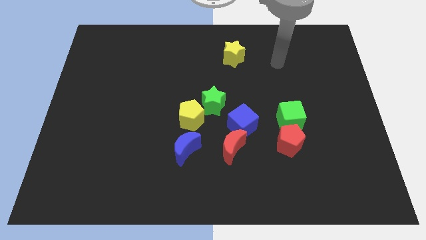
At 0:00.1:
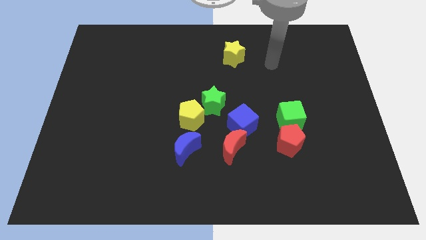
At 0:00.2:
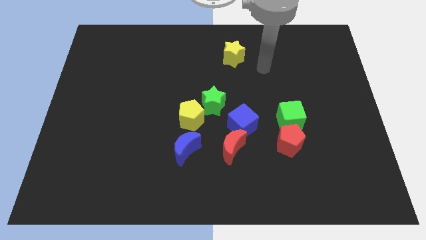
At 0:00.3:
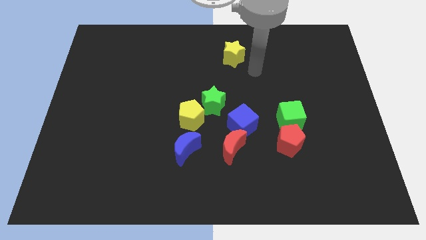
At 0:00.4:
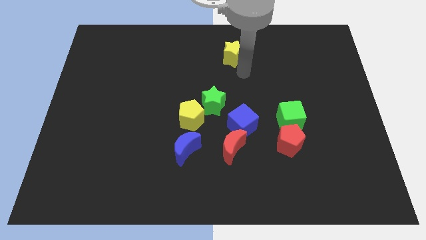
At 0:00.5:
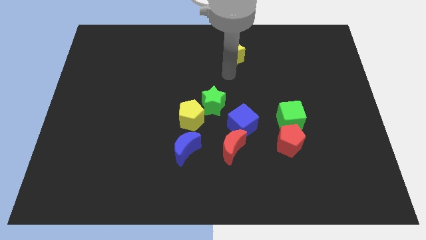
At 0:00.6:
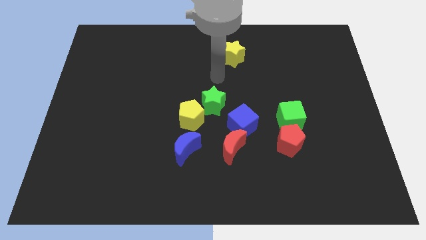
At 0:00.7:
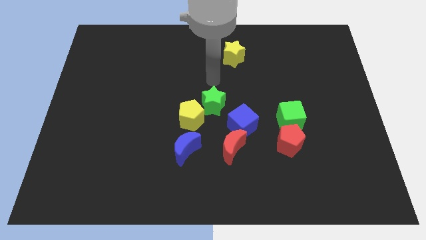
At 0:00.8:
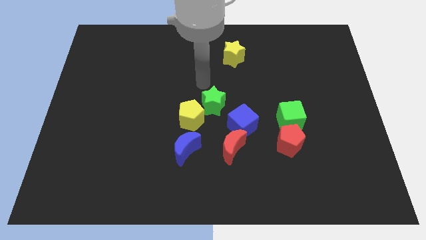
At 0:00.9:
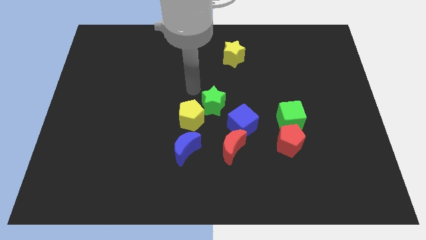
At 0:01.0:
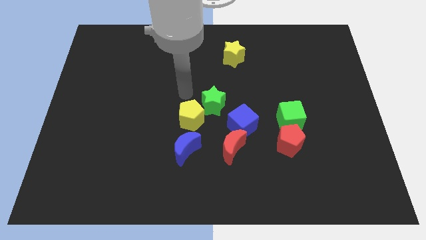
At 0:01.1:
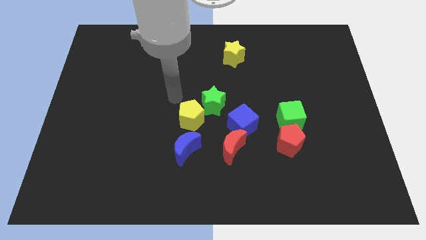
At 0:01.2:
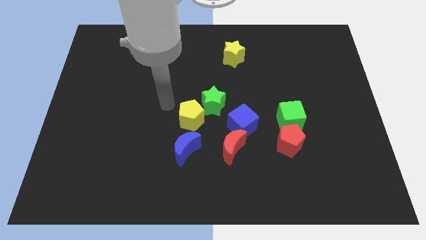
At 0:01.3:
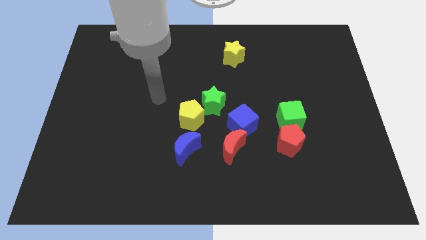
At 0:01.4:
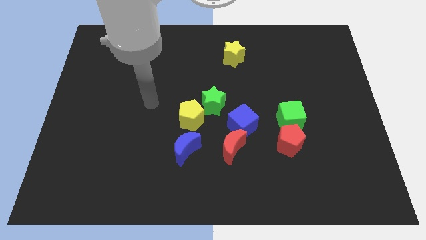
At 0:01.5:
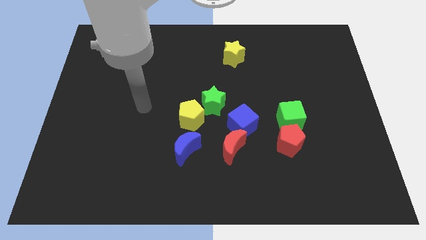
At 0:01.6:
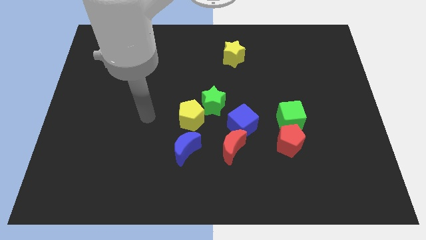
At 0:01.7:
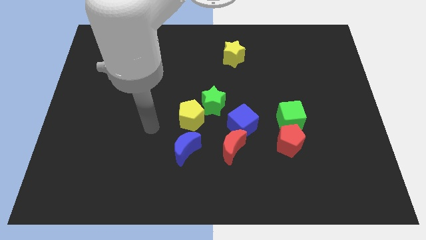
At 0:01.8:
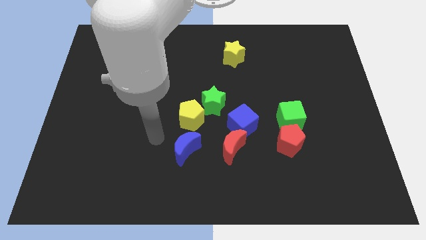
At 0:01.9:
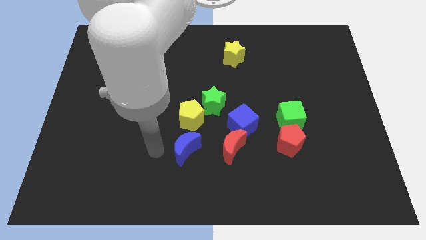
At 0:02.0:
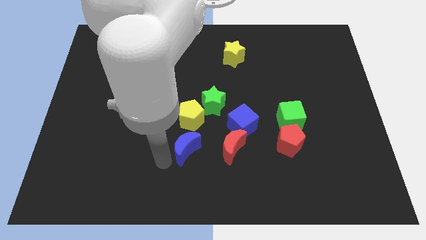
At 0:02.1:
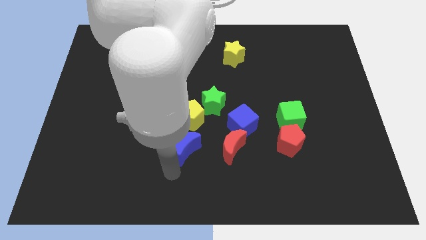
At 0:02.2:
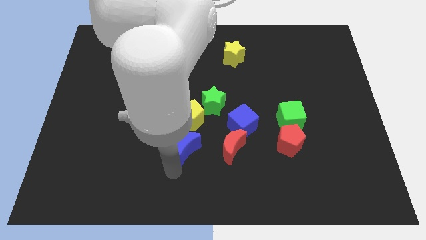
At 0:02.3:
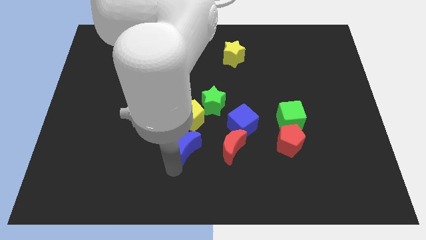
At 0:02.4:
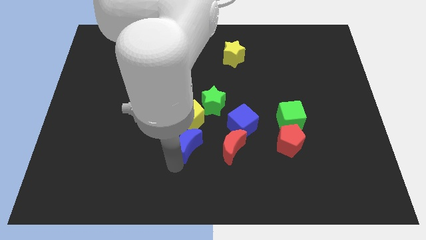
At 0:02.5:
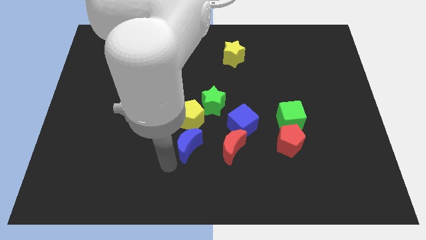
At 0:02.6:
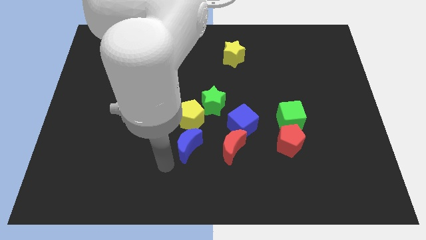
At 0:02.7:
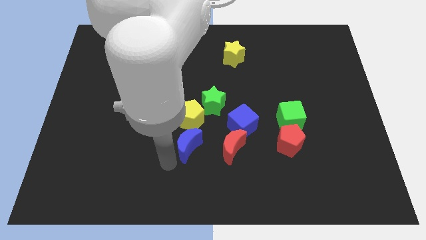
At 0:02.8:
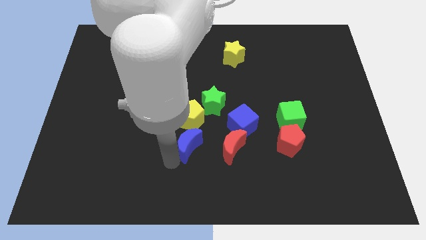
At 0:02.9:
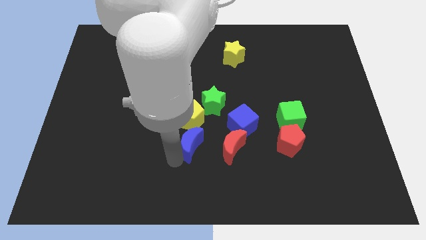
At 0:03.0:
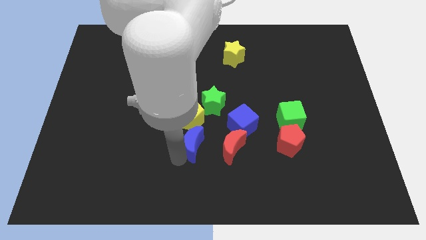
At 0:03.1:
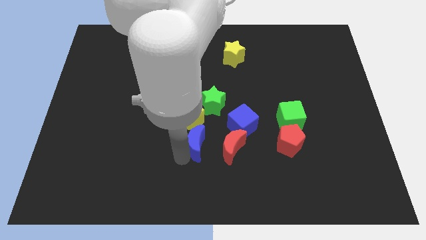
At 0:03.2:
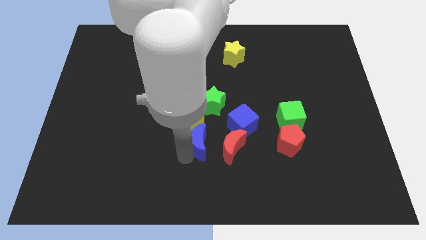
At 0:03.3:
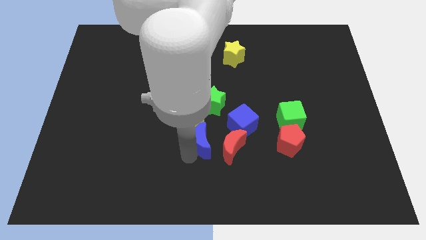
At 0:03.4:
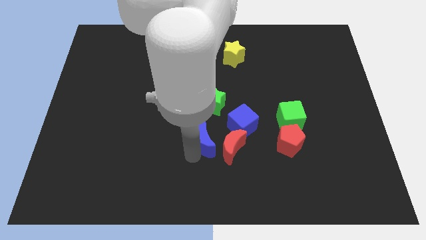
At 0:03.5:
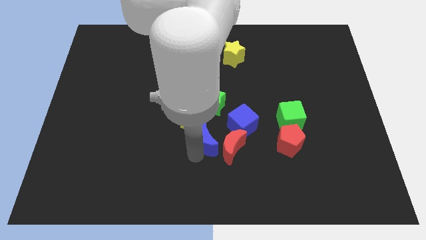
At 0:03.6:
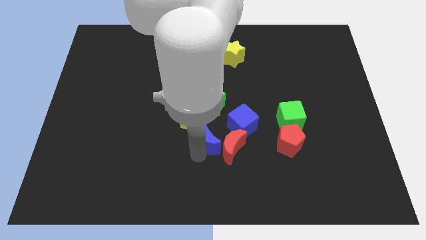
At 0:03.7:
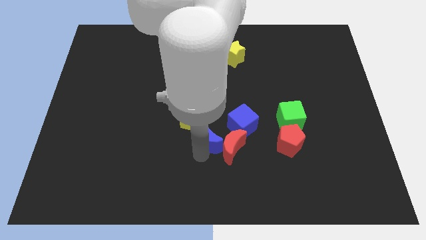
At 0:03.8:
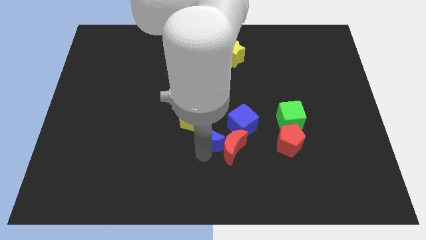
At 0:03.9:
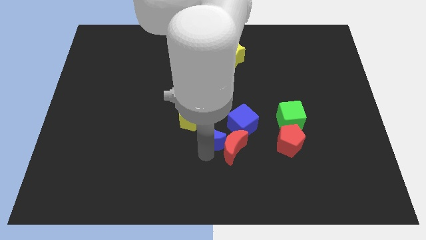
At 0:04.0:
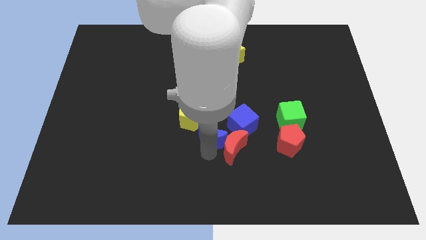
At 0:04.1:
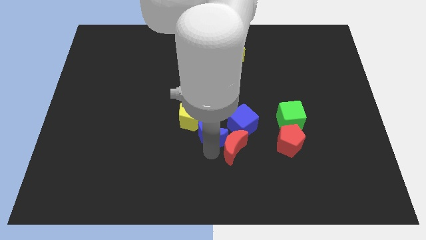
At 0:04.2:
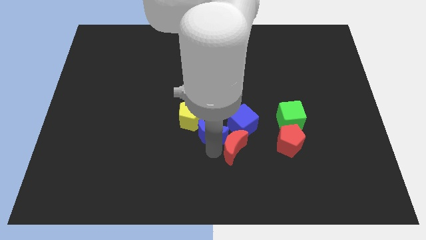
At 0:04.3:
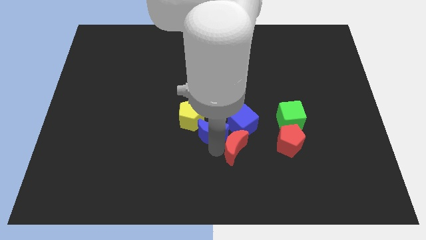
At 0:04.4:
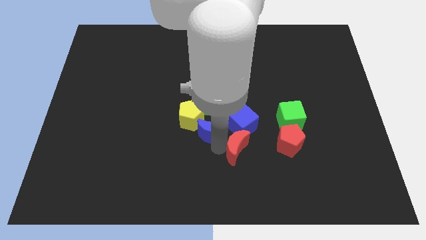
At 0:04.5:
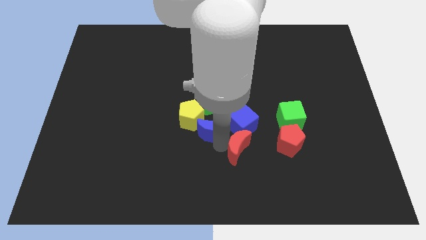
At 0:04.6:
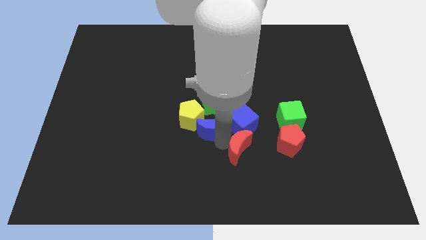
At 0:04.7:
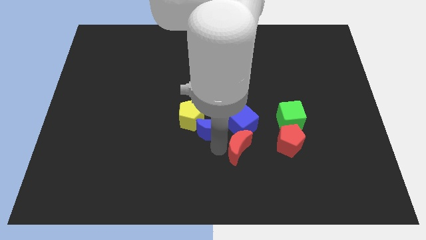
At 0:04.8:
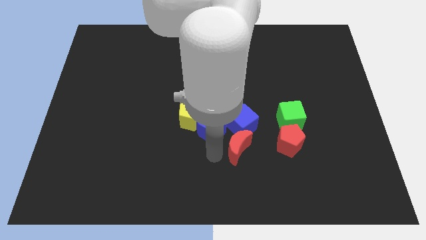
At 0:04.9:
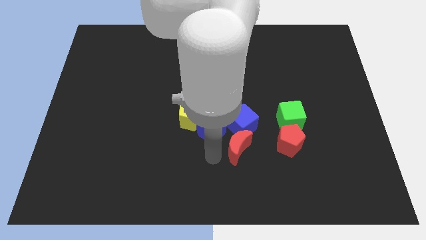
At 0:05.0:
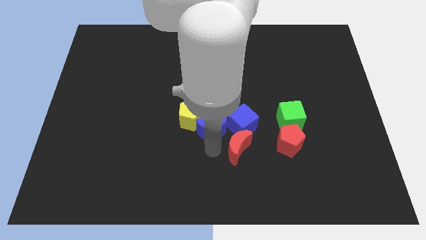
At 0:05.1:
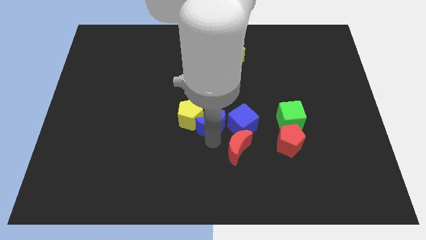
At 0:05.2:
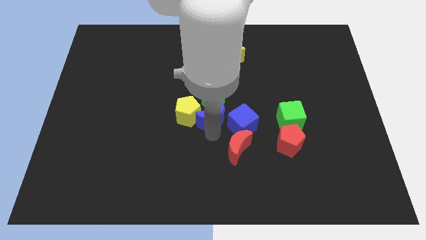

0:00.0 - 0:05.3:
move the blue moon close to the green star

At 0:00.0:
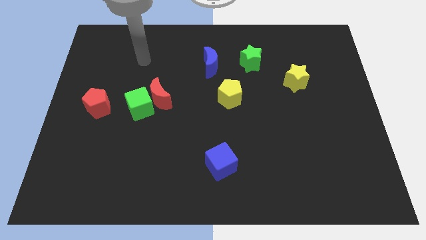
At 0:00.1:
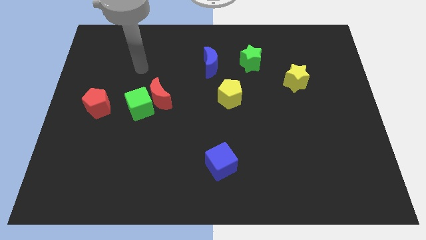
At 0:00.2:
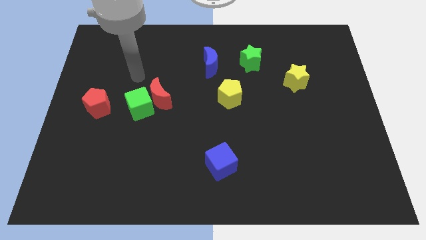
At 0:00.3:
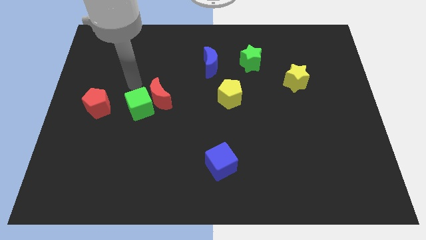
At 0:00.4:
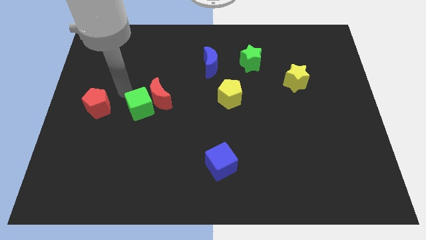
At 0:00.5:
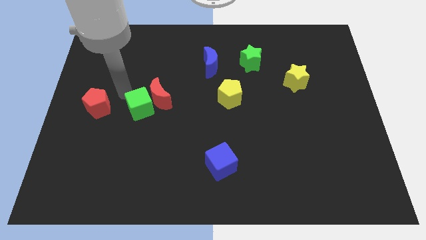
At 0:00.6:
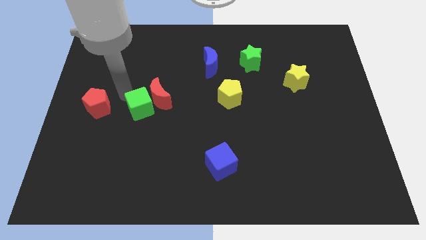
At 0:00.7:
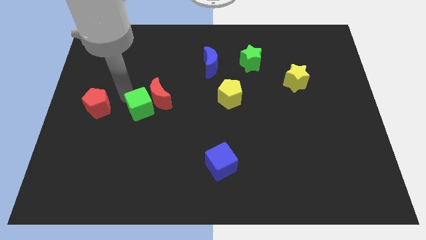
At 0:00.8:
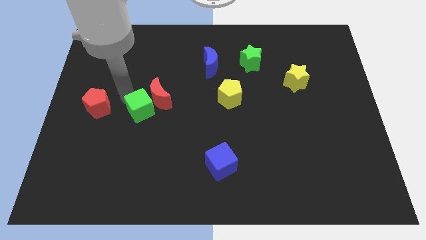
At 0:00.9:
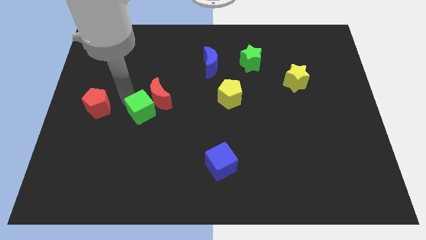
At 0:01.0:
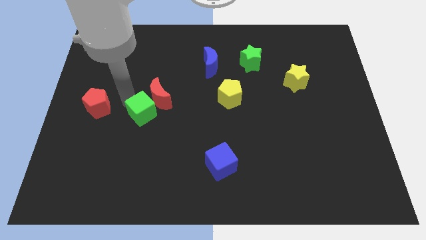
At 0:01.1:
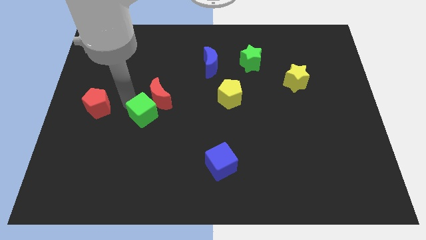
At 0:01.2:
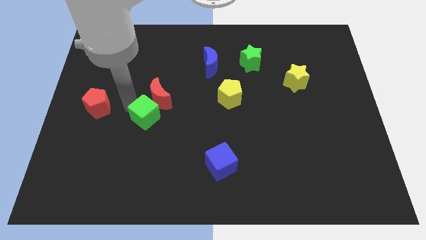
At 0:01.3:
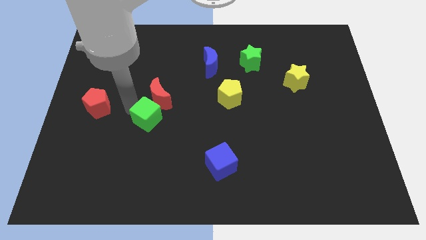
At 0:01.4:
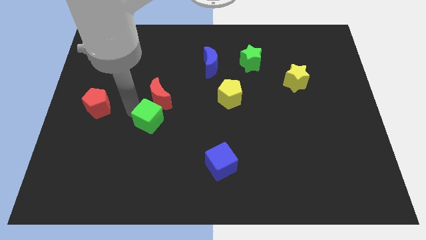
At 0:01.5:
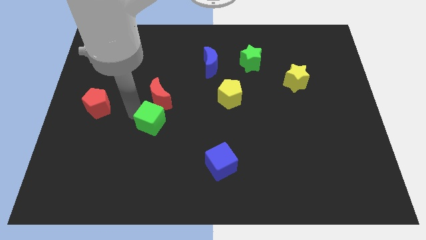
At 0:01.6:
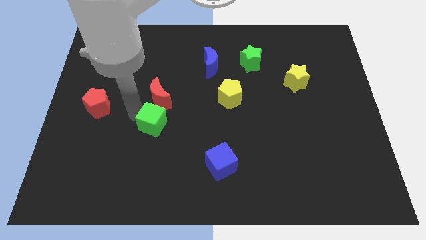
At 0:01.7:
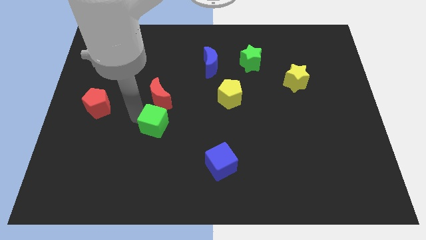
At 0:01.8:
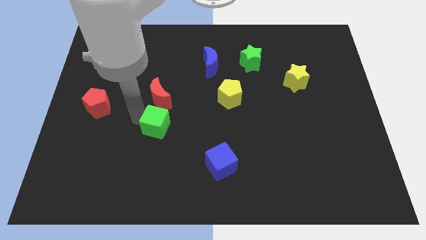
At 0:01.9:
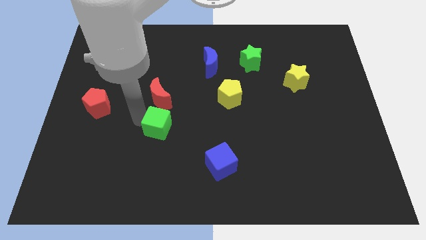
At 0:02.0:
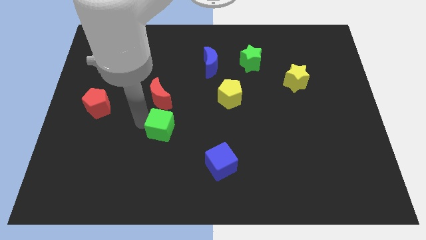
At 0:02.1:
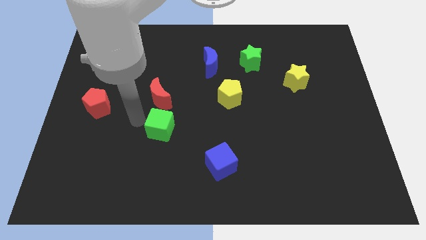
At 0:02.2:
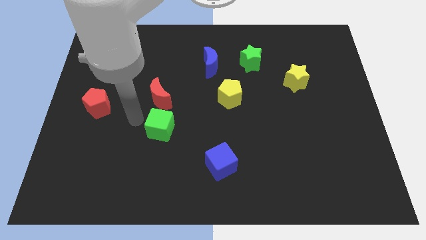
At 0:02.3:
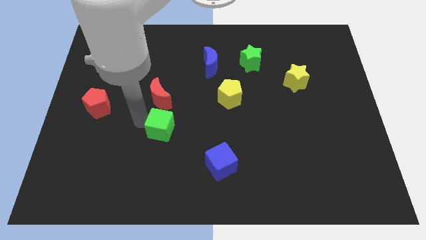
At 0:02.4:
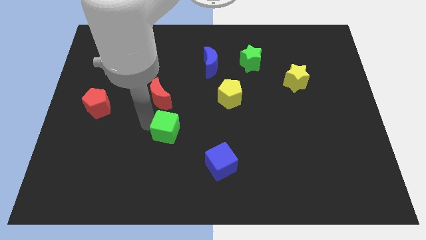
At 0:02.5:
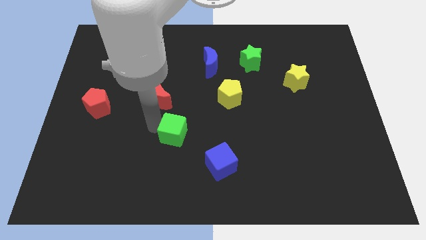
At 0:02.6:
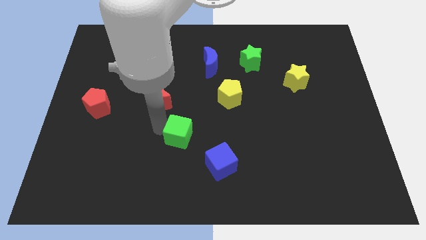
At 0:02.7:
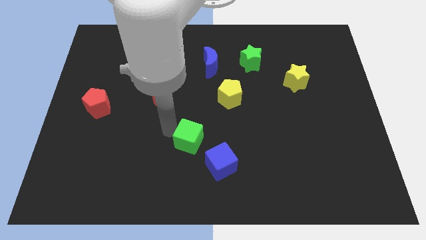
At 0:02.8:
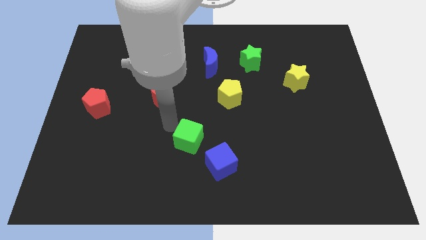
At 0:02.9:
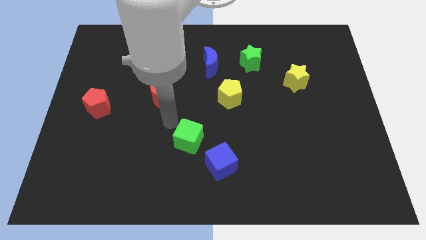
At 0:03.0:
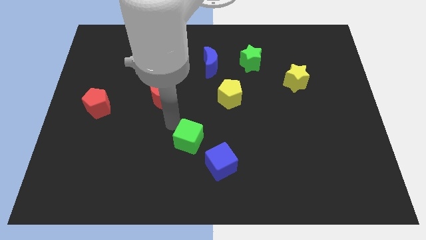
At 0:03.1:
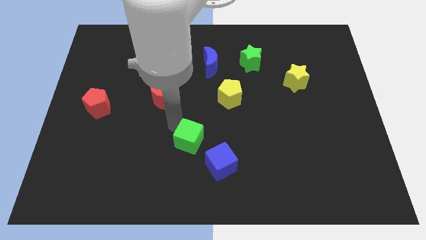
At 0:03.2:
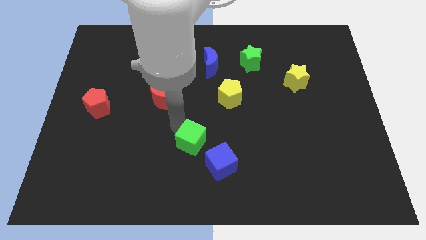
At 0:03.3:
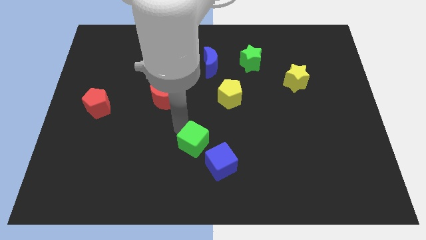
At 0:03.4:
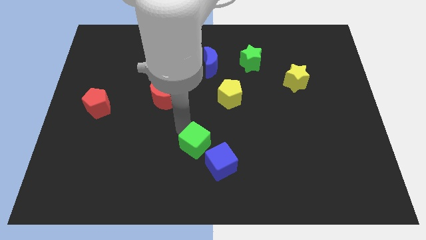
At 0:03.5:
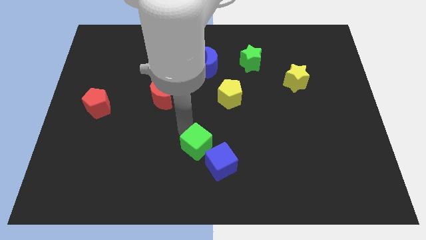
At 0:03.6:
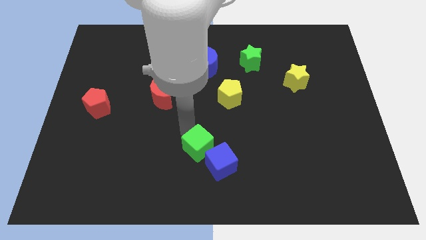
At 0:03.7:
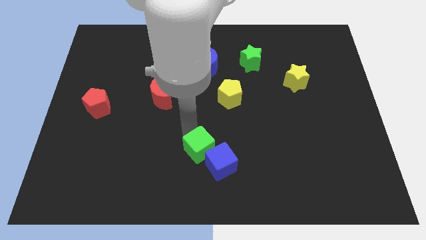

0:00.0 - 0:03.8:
move the green cube close to the blue cube
